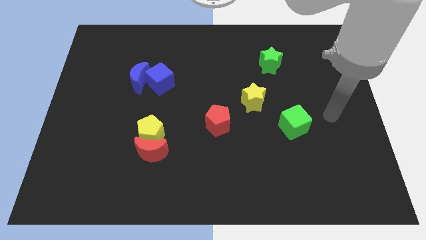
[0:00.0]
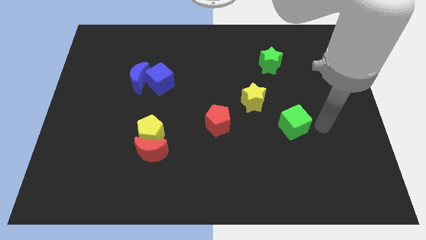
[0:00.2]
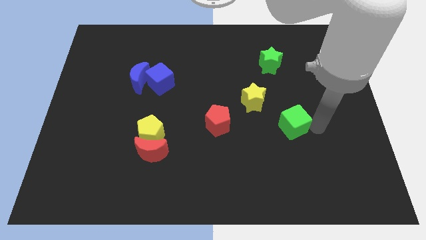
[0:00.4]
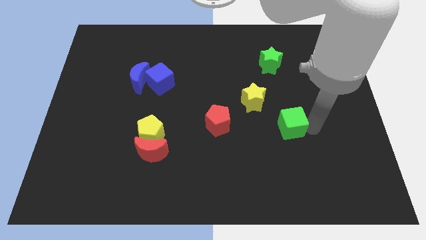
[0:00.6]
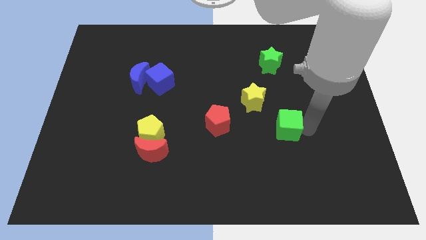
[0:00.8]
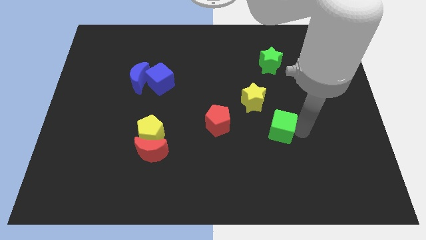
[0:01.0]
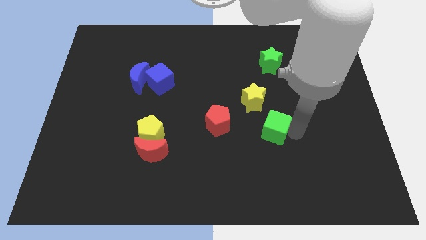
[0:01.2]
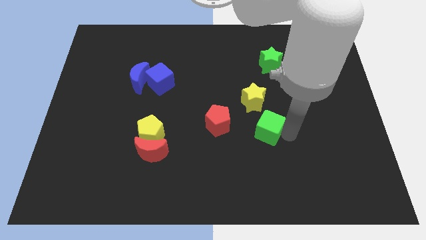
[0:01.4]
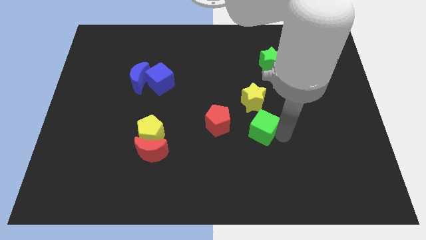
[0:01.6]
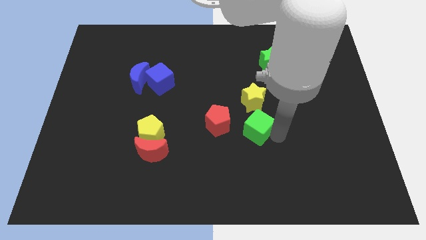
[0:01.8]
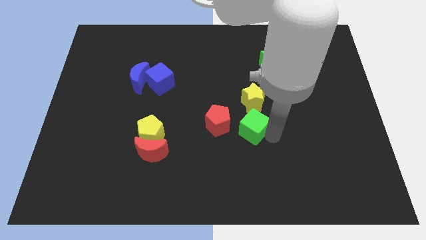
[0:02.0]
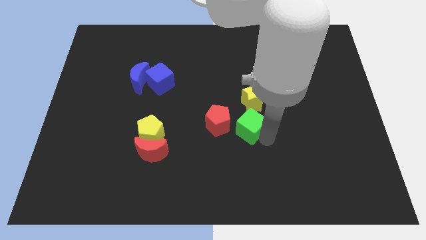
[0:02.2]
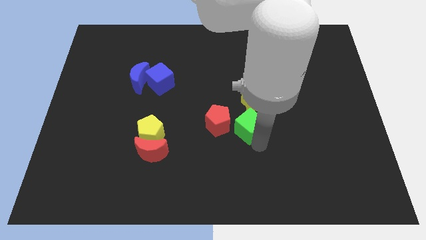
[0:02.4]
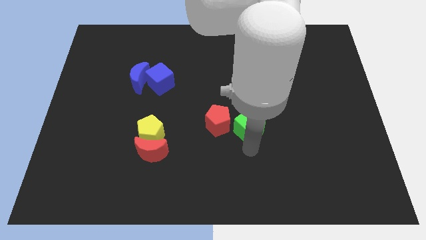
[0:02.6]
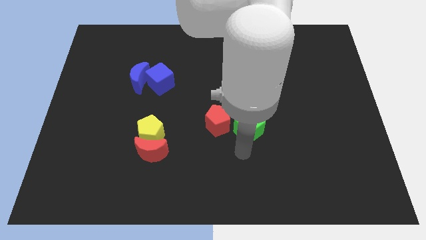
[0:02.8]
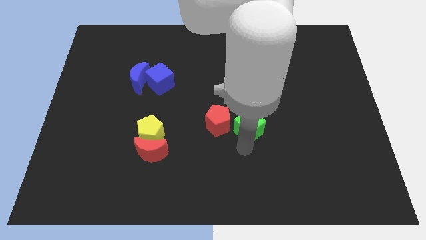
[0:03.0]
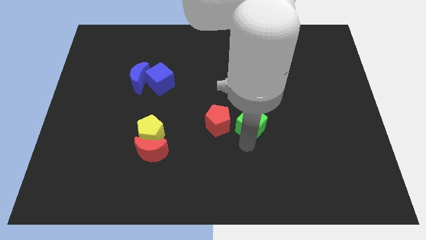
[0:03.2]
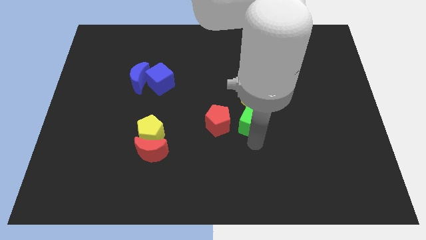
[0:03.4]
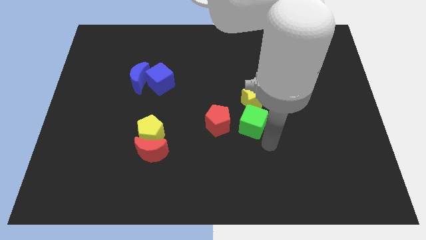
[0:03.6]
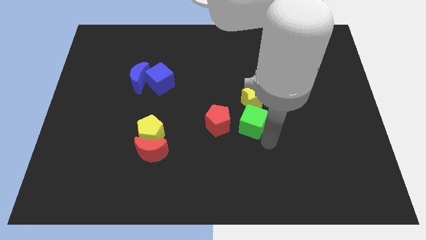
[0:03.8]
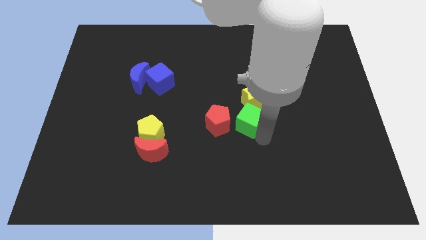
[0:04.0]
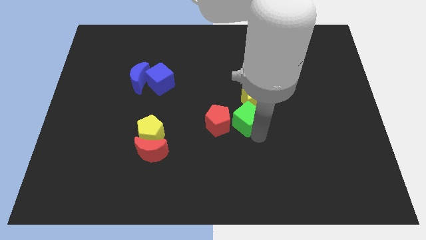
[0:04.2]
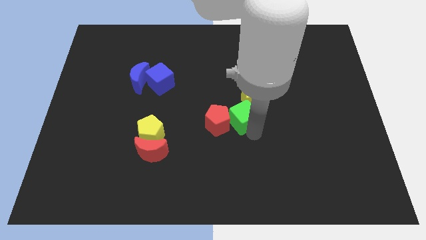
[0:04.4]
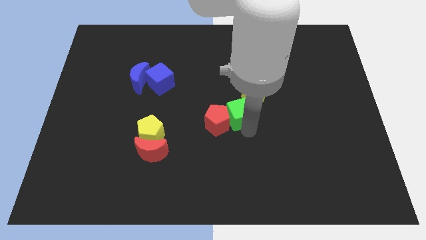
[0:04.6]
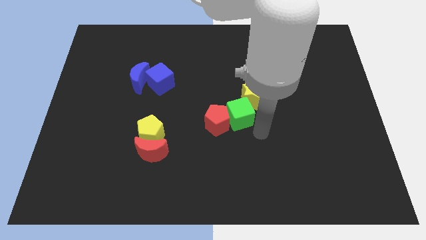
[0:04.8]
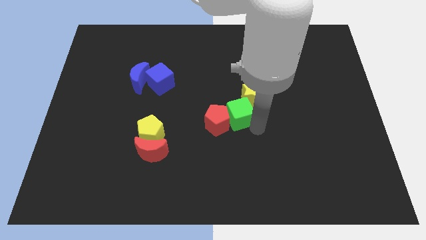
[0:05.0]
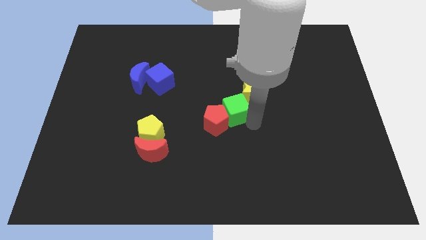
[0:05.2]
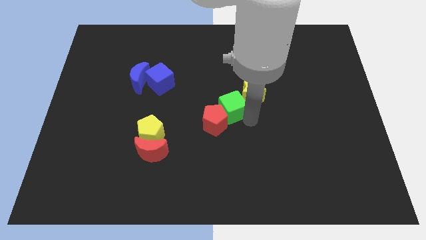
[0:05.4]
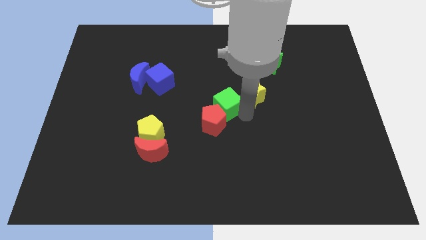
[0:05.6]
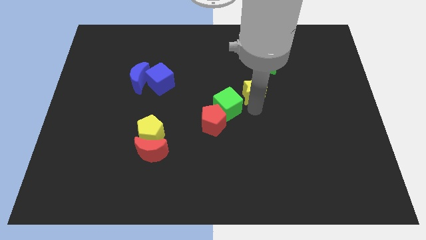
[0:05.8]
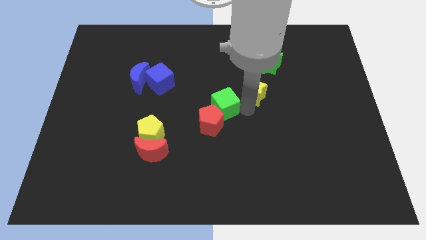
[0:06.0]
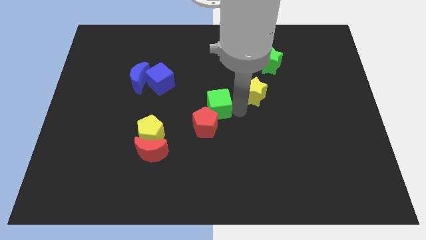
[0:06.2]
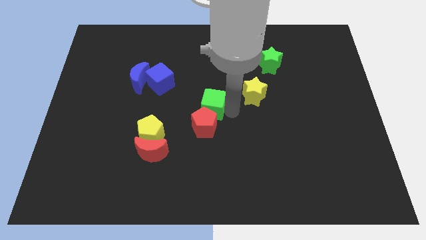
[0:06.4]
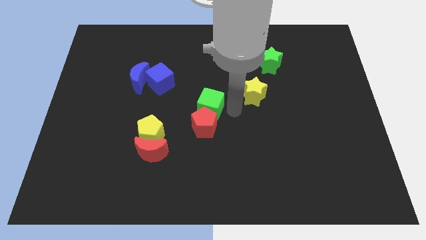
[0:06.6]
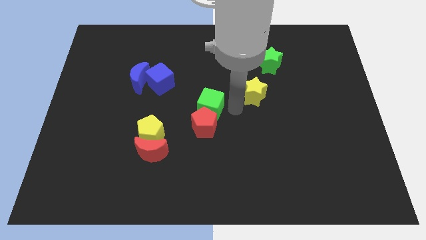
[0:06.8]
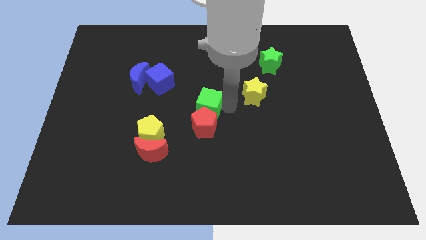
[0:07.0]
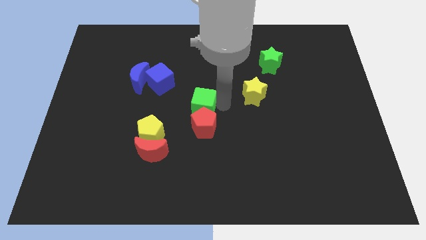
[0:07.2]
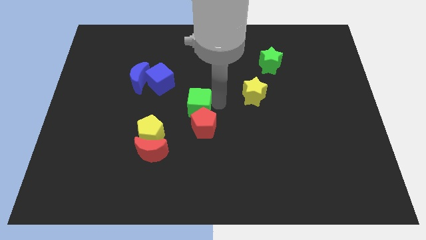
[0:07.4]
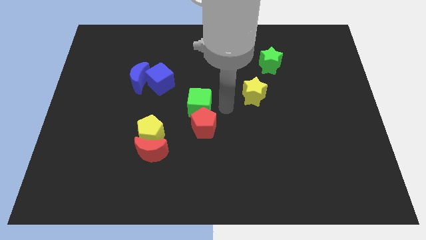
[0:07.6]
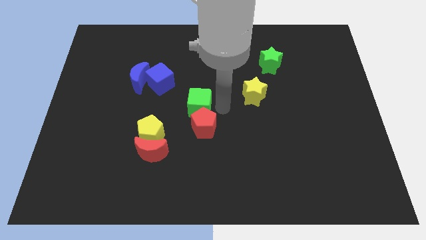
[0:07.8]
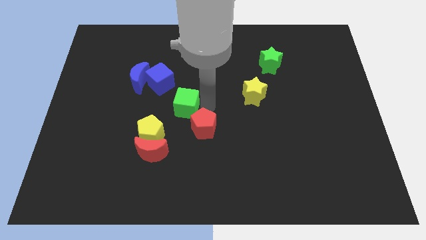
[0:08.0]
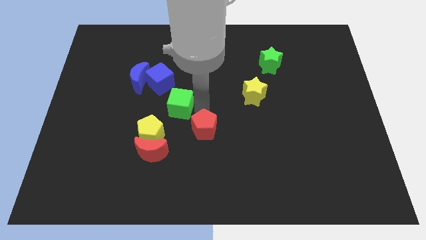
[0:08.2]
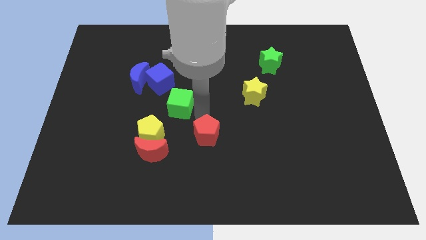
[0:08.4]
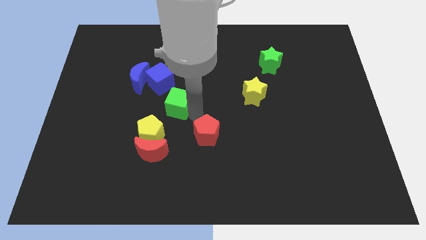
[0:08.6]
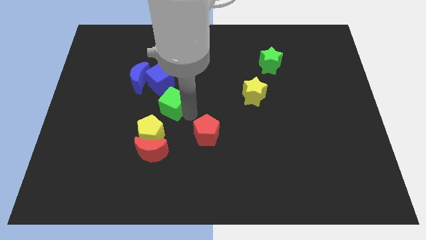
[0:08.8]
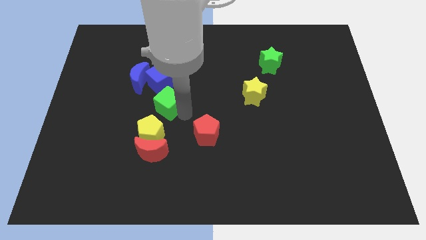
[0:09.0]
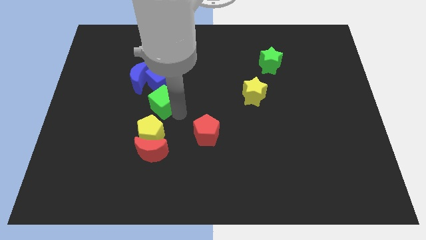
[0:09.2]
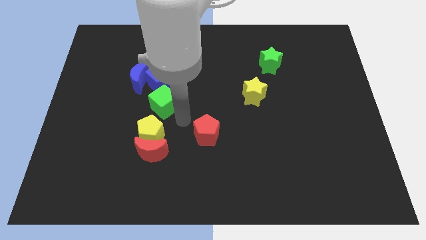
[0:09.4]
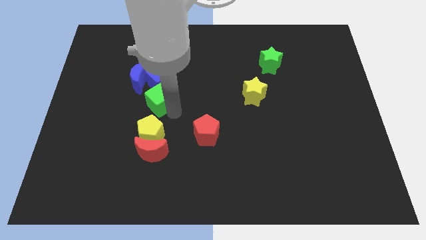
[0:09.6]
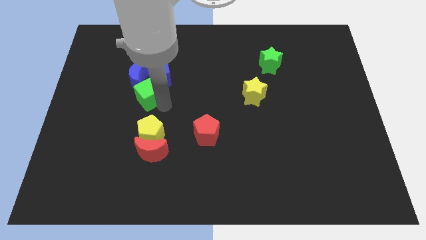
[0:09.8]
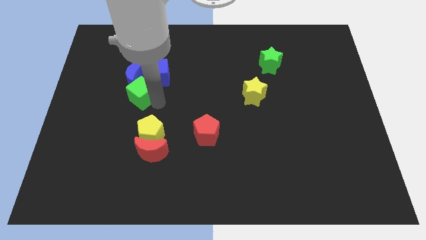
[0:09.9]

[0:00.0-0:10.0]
slide the green cube to the blue moon

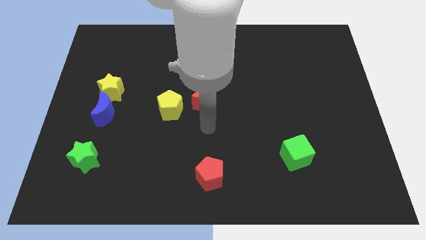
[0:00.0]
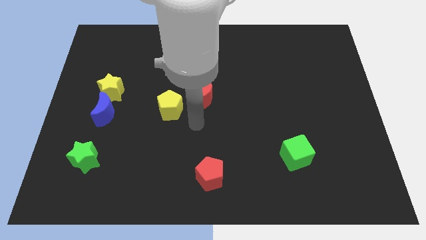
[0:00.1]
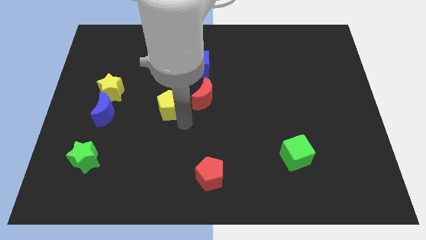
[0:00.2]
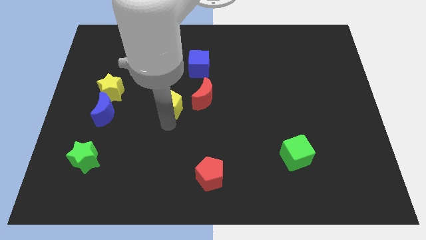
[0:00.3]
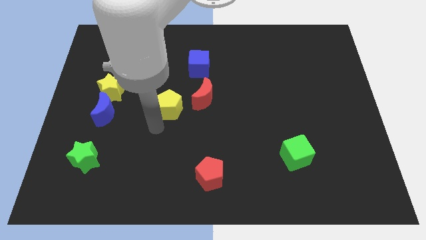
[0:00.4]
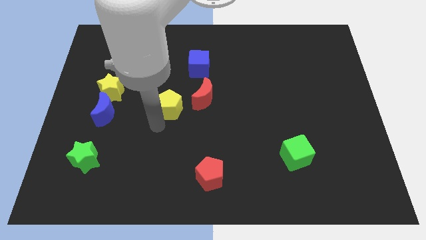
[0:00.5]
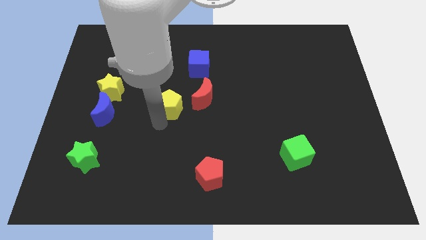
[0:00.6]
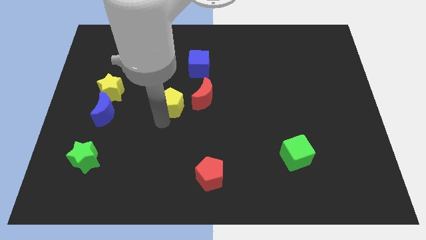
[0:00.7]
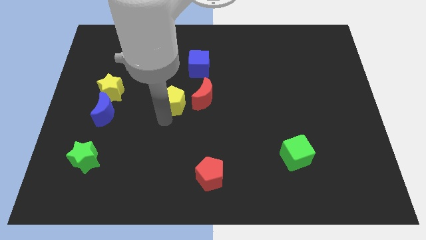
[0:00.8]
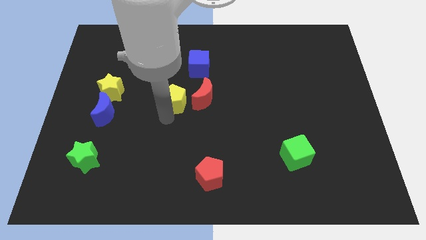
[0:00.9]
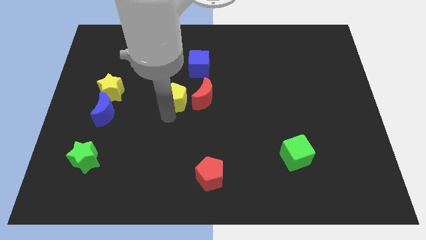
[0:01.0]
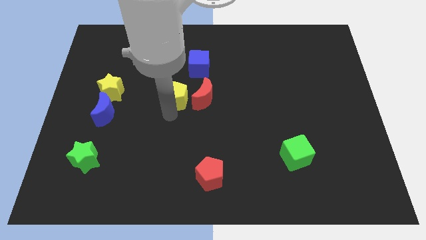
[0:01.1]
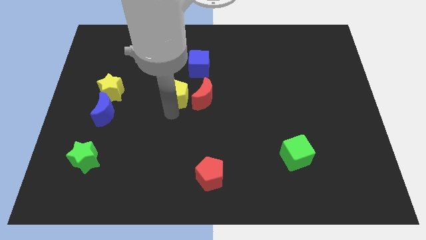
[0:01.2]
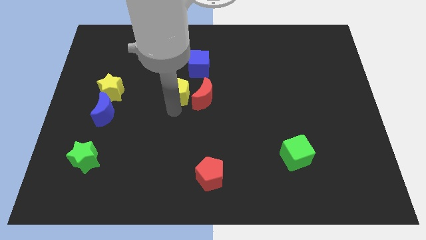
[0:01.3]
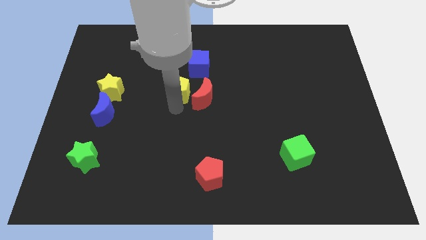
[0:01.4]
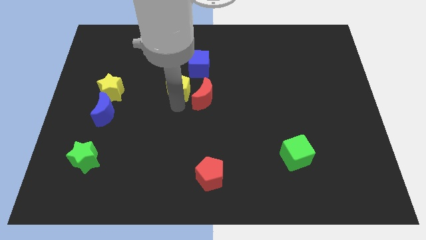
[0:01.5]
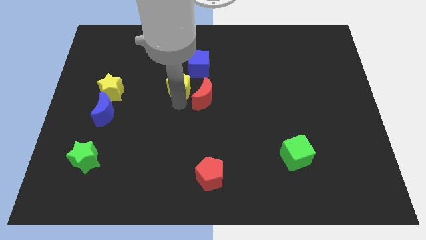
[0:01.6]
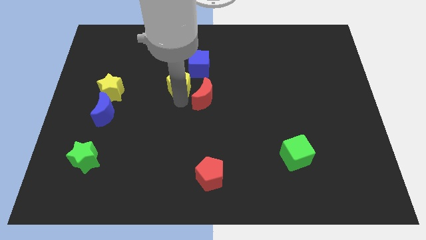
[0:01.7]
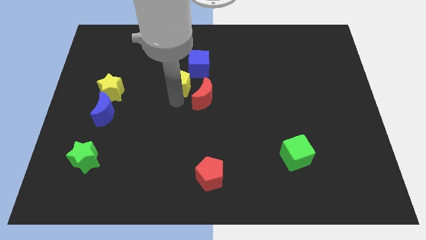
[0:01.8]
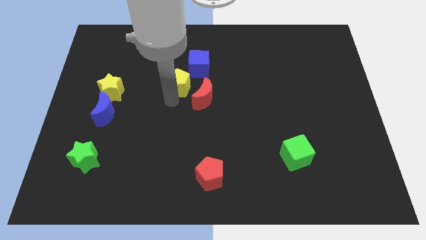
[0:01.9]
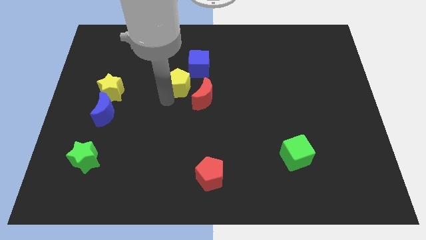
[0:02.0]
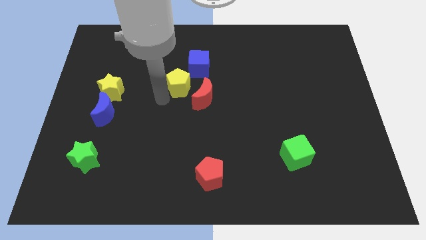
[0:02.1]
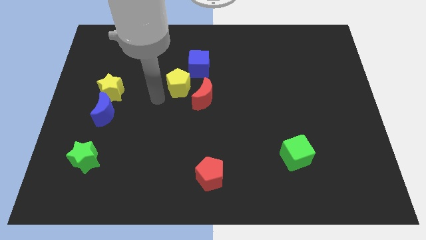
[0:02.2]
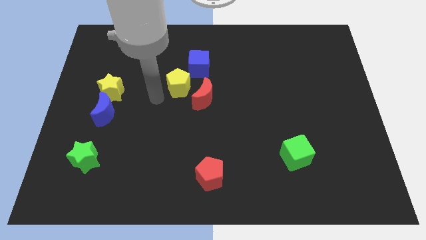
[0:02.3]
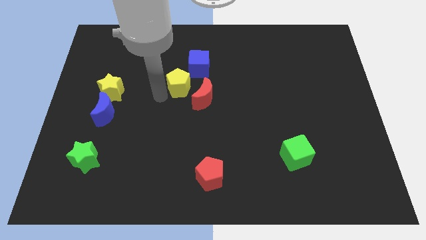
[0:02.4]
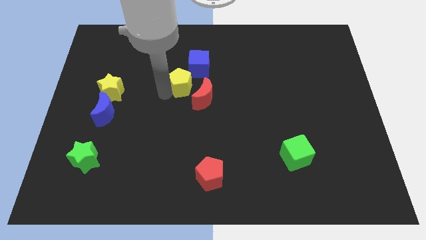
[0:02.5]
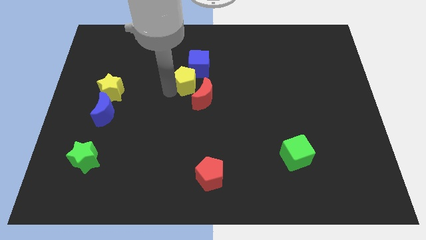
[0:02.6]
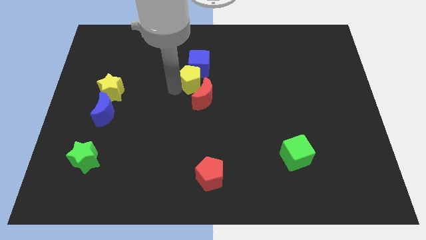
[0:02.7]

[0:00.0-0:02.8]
slide the yellow pentagon next to the blue cube

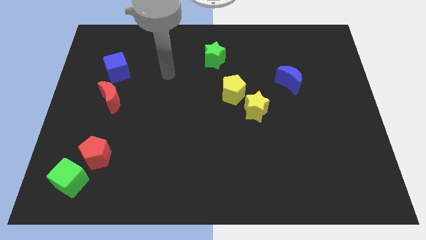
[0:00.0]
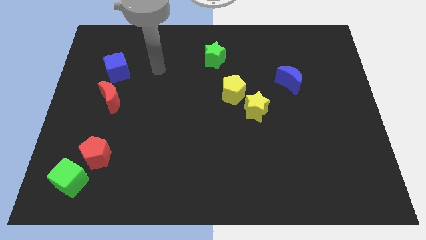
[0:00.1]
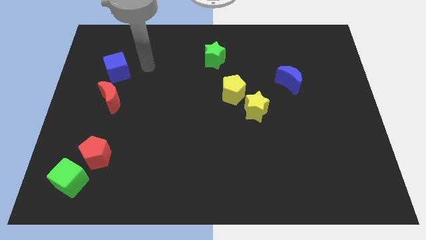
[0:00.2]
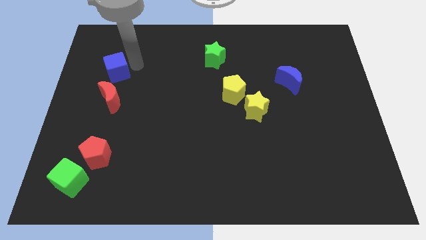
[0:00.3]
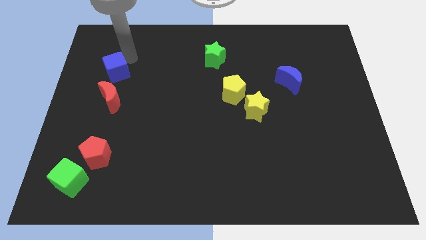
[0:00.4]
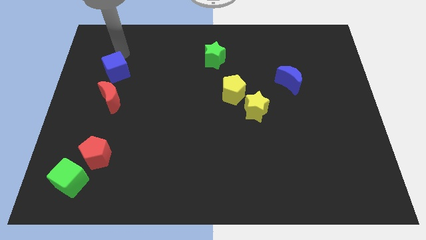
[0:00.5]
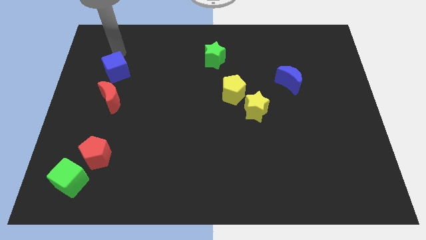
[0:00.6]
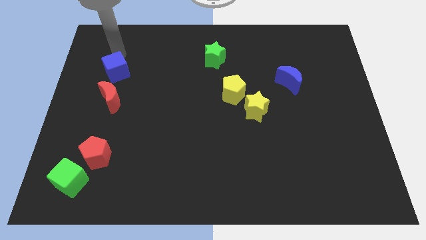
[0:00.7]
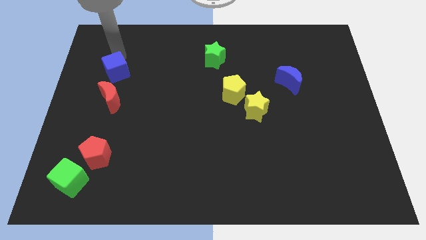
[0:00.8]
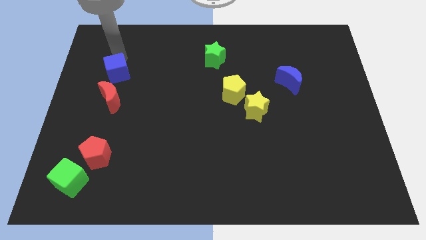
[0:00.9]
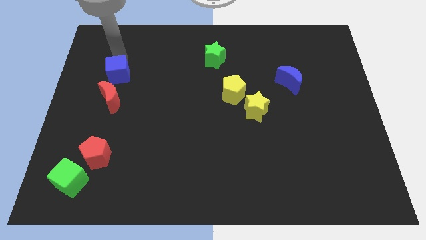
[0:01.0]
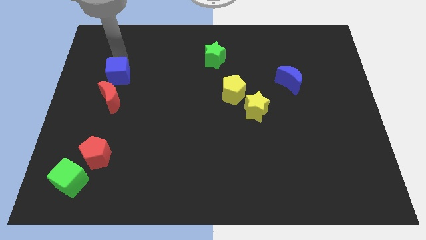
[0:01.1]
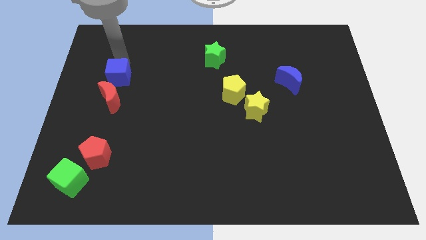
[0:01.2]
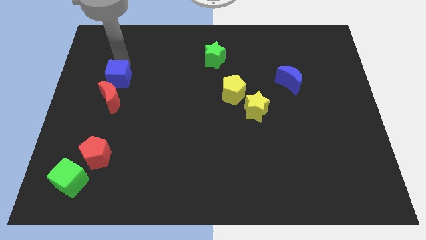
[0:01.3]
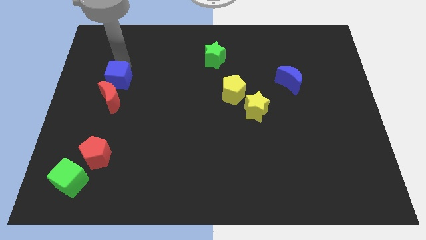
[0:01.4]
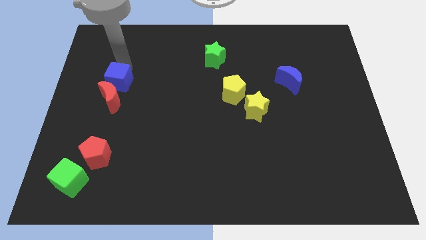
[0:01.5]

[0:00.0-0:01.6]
push the blue cube to the red moon
